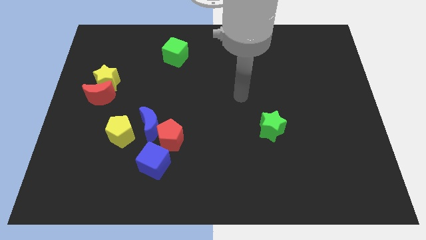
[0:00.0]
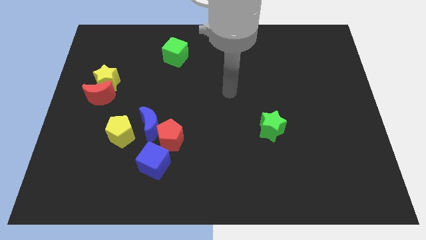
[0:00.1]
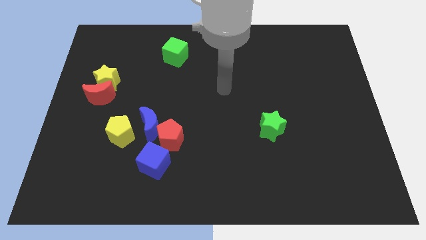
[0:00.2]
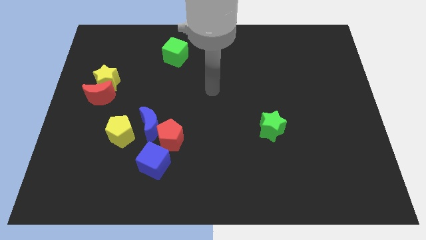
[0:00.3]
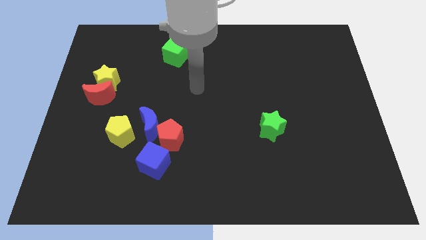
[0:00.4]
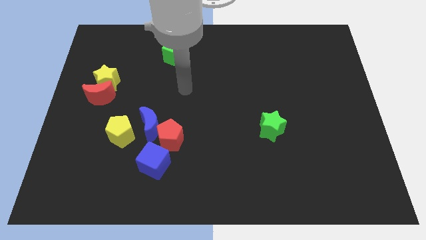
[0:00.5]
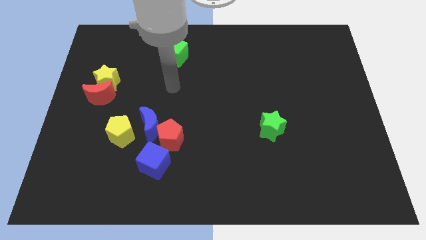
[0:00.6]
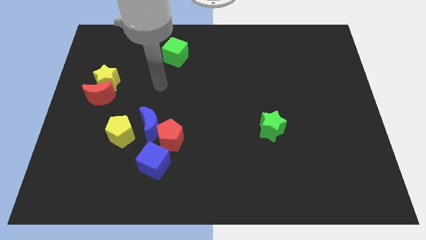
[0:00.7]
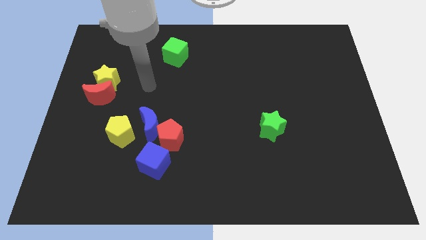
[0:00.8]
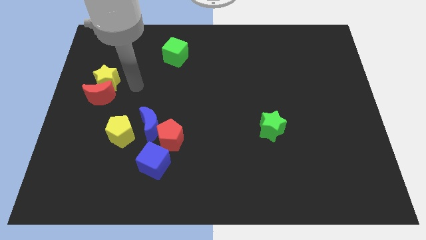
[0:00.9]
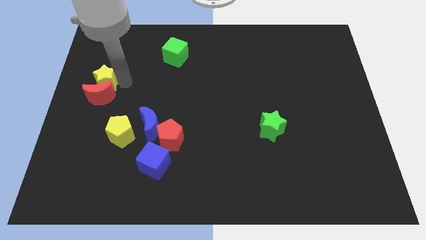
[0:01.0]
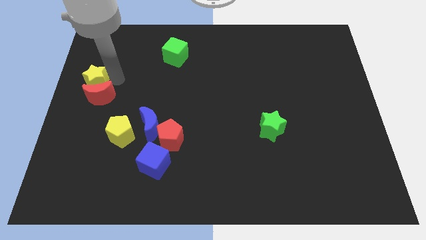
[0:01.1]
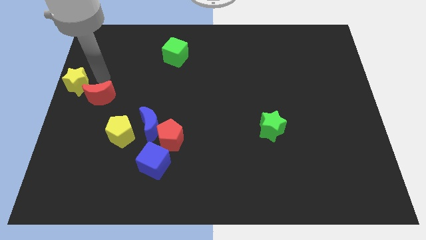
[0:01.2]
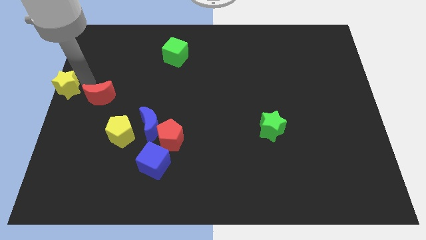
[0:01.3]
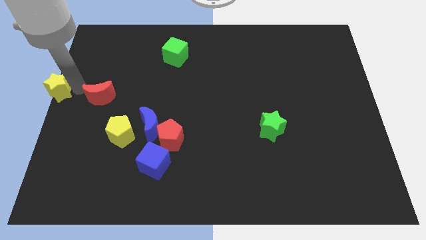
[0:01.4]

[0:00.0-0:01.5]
separate the red moon from the yellow star

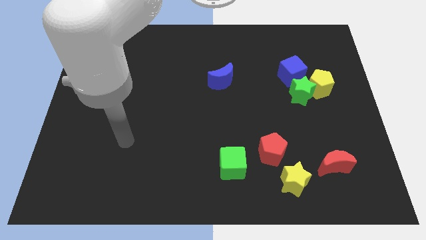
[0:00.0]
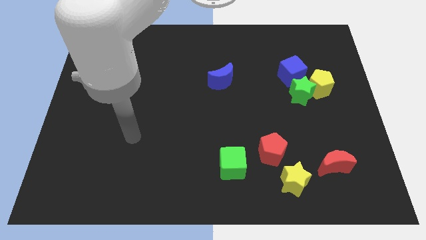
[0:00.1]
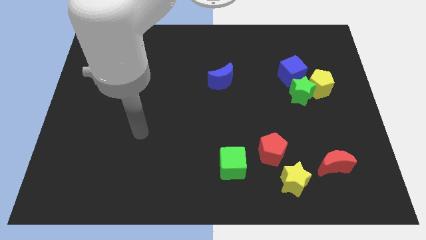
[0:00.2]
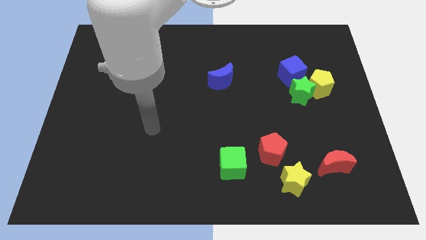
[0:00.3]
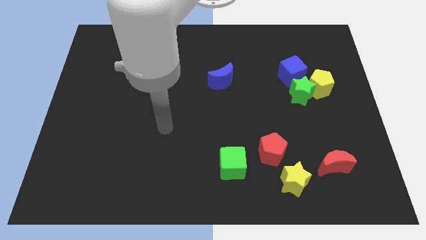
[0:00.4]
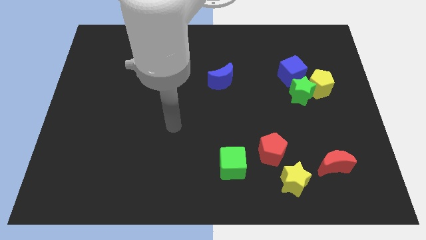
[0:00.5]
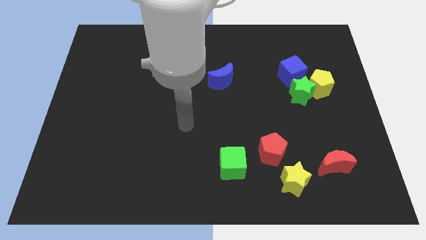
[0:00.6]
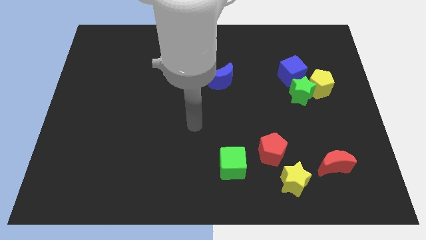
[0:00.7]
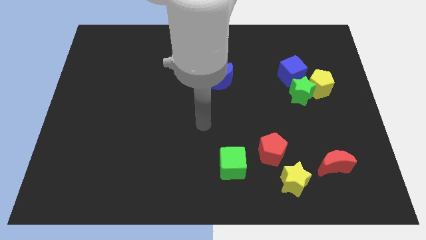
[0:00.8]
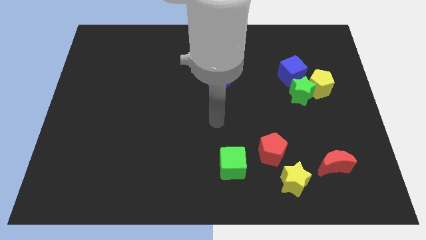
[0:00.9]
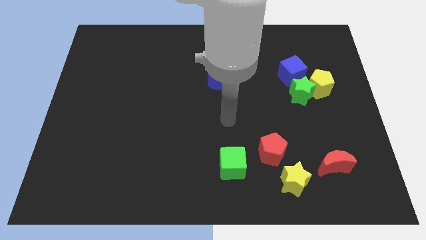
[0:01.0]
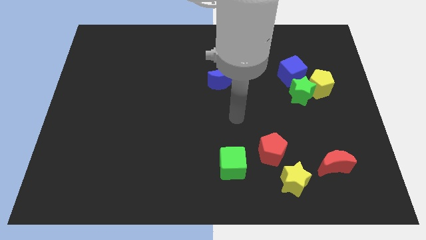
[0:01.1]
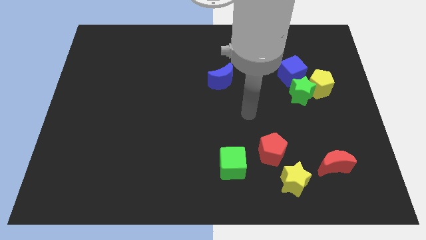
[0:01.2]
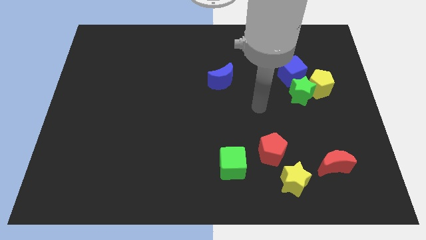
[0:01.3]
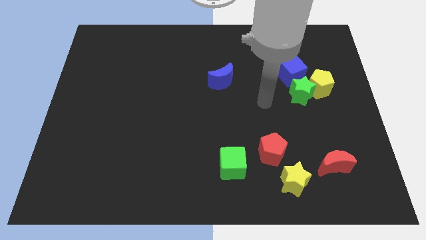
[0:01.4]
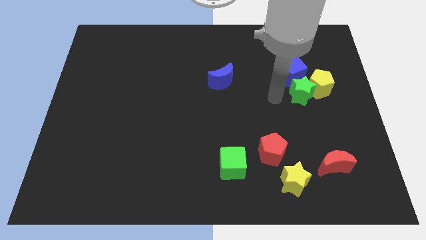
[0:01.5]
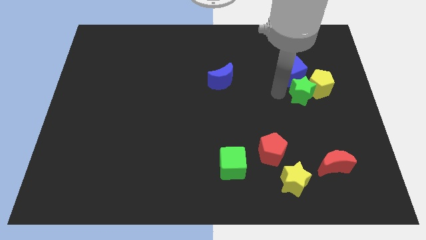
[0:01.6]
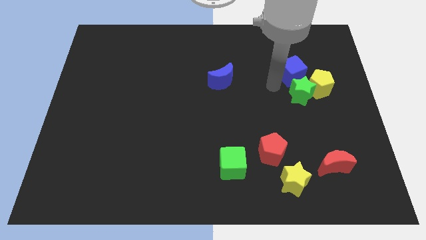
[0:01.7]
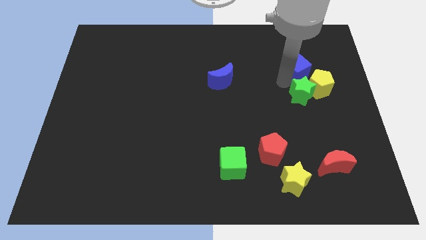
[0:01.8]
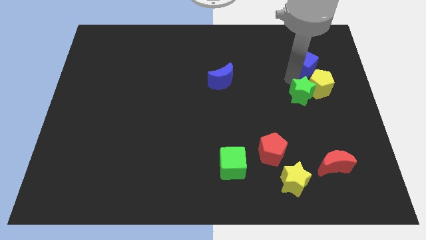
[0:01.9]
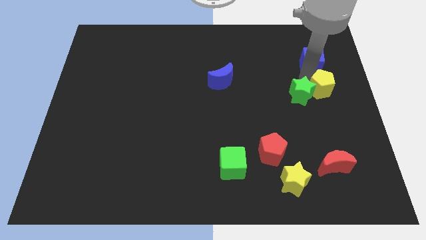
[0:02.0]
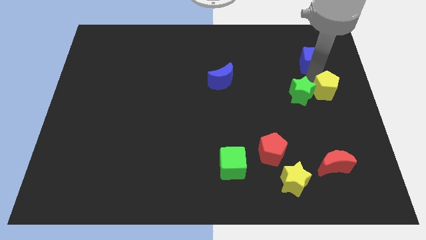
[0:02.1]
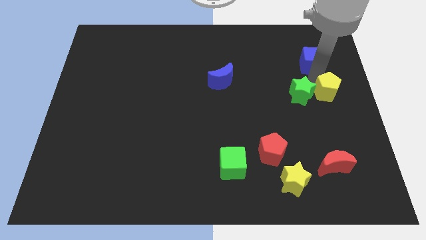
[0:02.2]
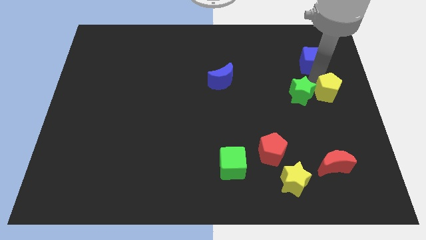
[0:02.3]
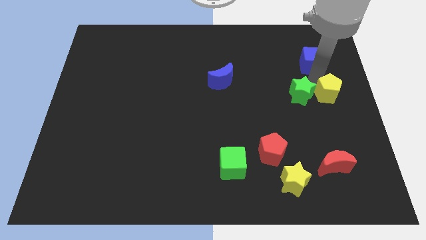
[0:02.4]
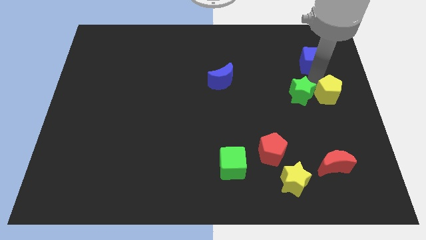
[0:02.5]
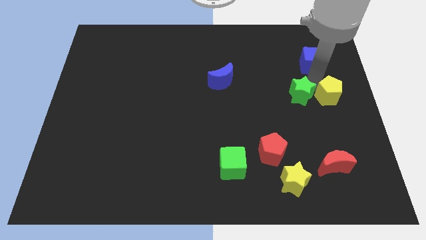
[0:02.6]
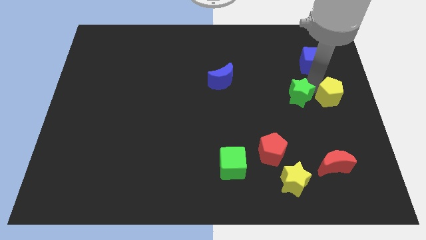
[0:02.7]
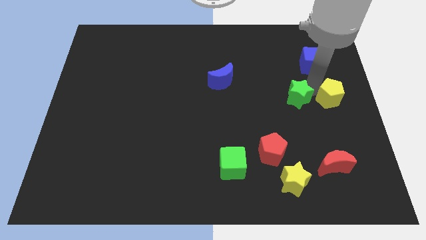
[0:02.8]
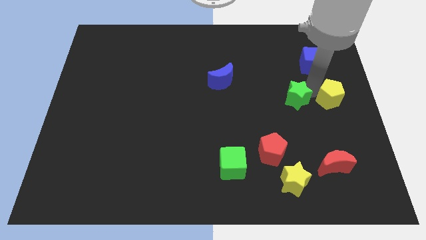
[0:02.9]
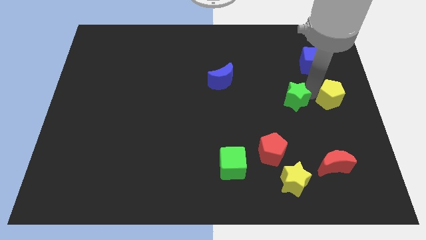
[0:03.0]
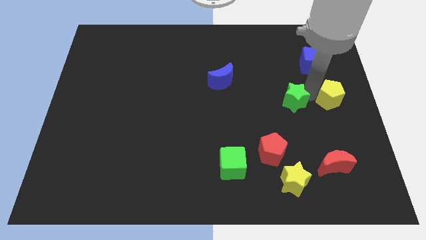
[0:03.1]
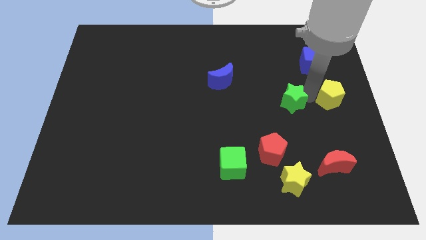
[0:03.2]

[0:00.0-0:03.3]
separate the green star from the yellow pentagon and blue cube

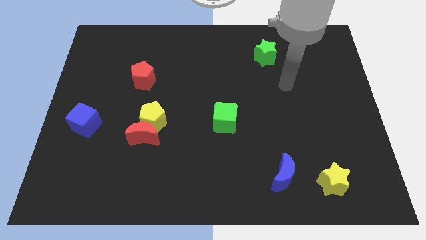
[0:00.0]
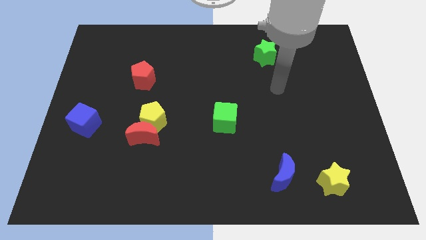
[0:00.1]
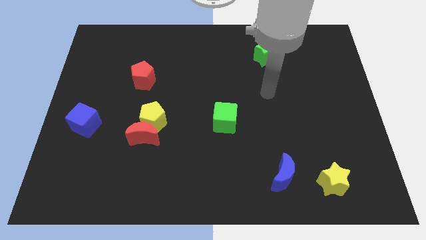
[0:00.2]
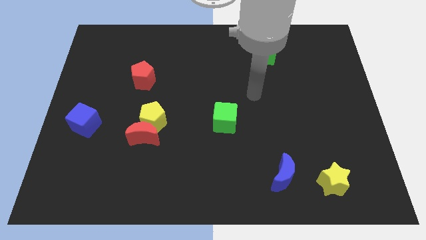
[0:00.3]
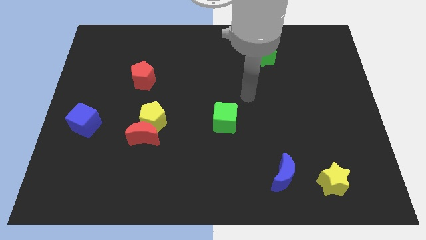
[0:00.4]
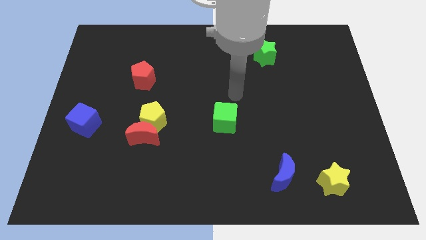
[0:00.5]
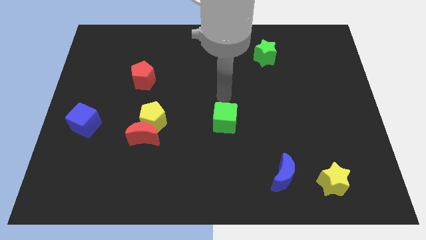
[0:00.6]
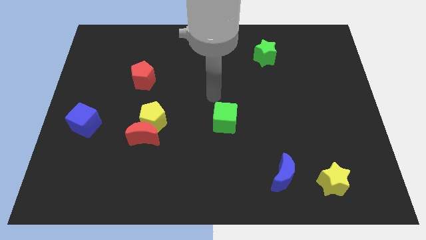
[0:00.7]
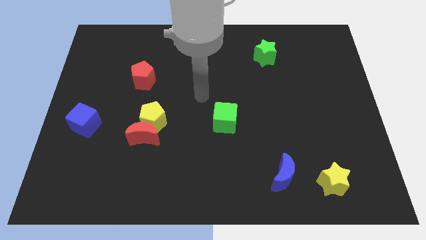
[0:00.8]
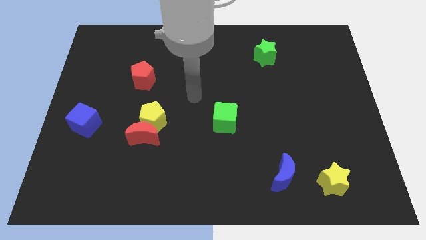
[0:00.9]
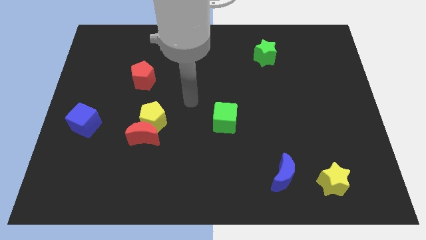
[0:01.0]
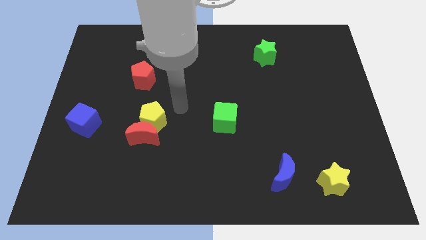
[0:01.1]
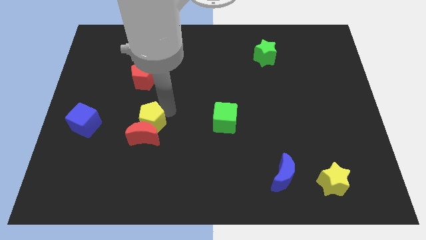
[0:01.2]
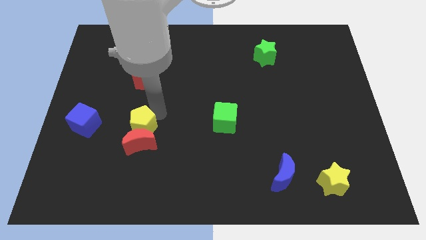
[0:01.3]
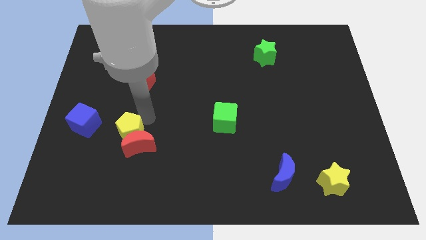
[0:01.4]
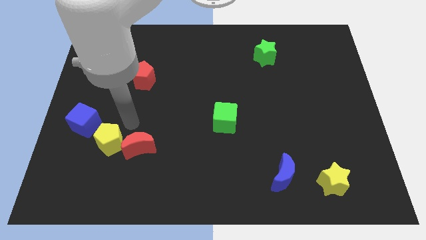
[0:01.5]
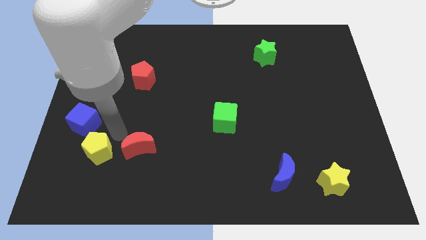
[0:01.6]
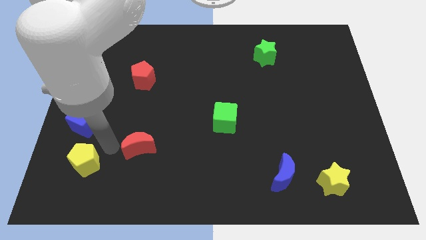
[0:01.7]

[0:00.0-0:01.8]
pull the red moon apart from the yellow pentagon

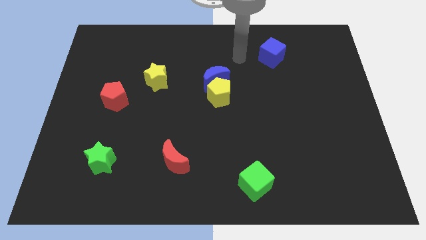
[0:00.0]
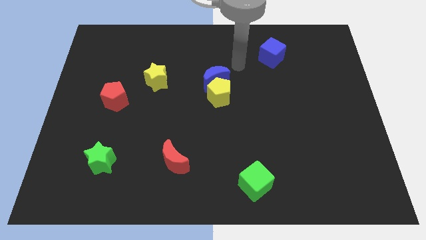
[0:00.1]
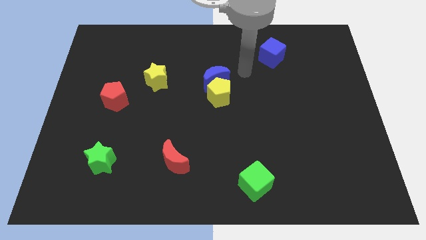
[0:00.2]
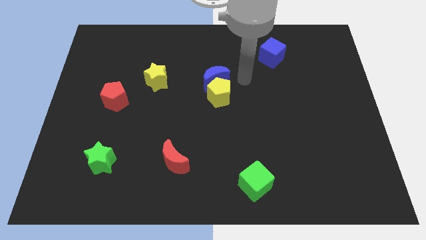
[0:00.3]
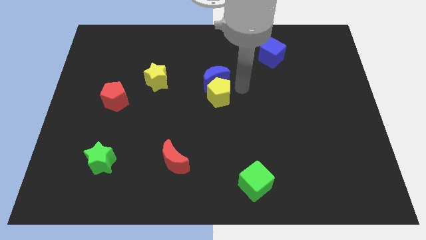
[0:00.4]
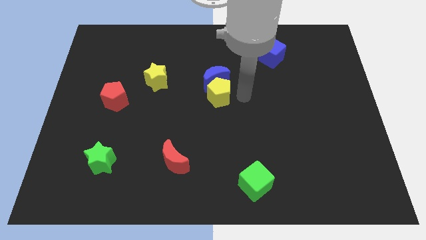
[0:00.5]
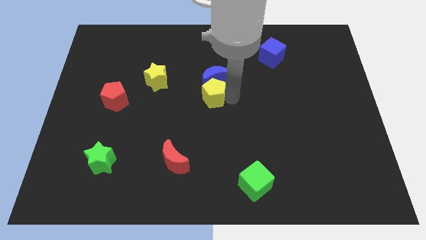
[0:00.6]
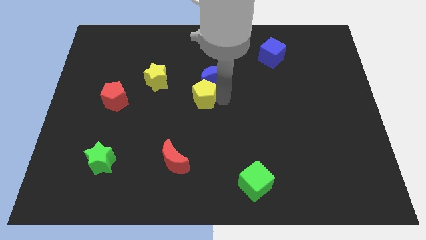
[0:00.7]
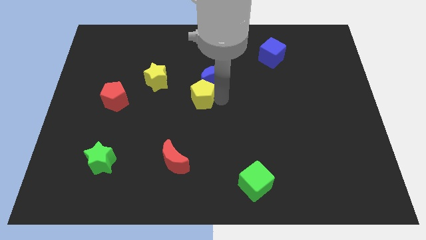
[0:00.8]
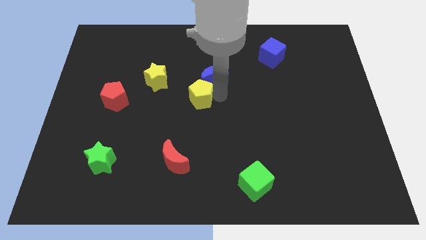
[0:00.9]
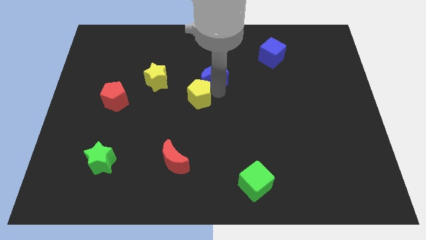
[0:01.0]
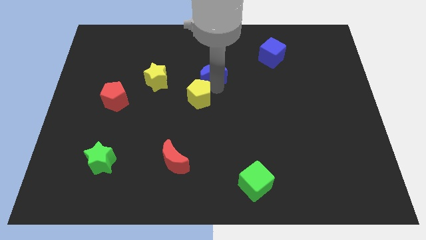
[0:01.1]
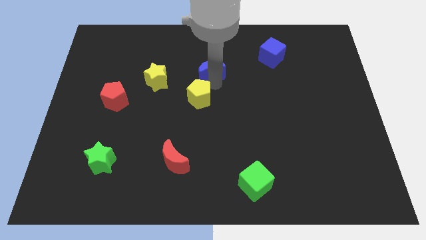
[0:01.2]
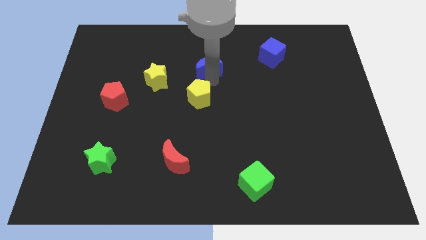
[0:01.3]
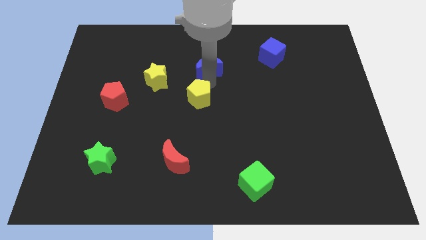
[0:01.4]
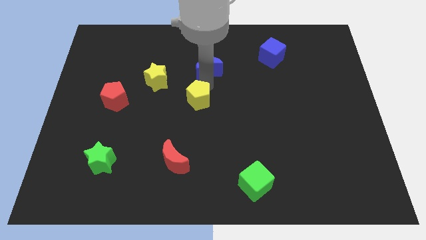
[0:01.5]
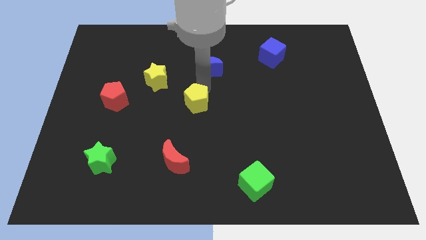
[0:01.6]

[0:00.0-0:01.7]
separate the blue moon from the yellow pentagon

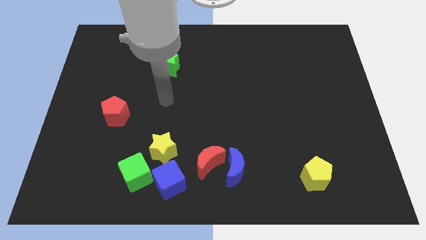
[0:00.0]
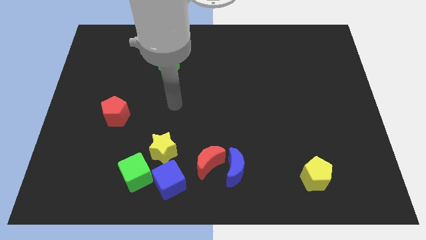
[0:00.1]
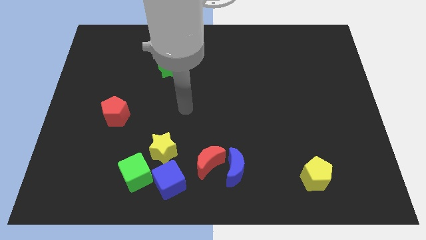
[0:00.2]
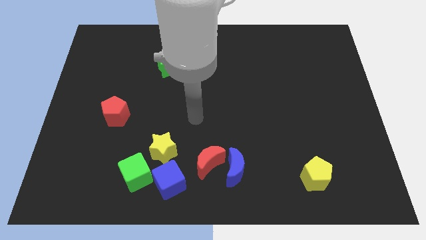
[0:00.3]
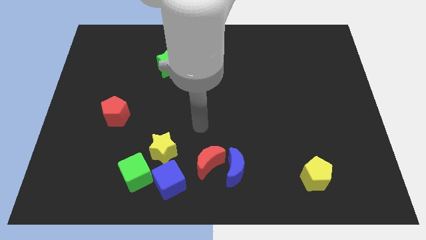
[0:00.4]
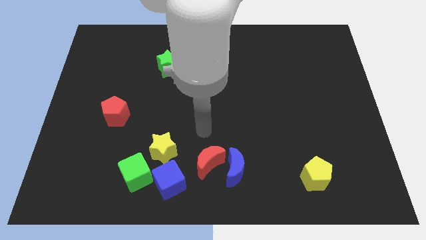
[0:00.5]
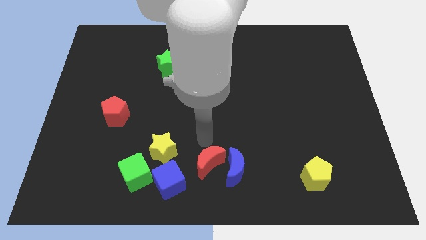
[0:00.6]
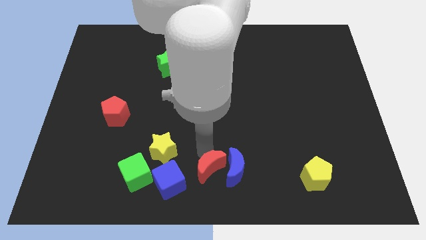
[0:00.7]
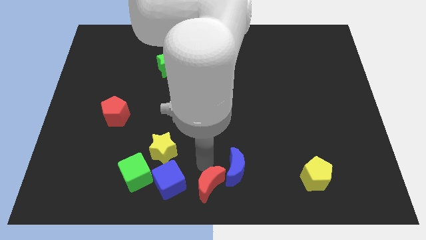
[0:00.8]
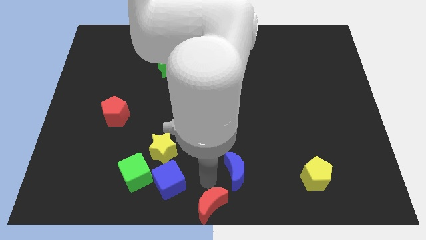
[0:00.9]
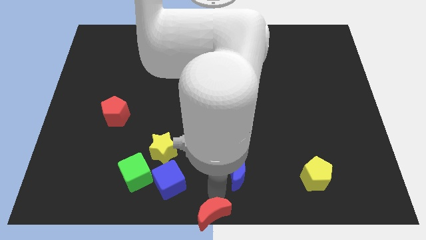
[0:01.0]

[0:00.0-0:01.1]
pull the blue moon apart from the red moon
